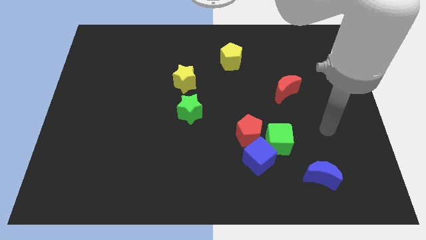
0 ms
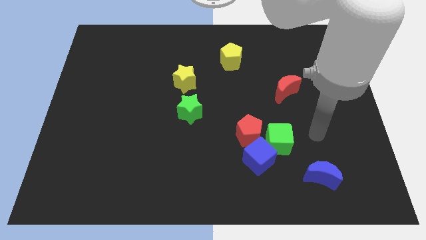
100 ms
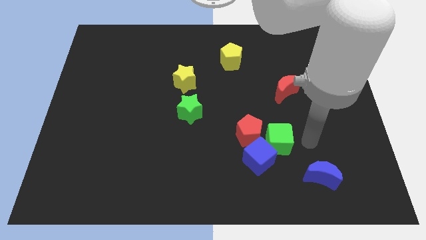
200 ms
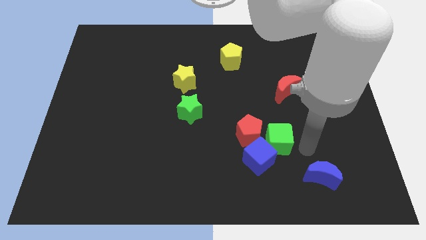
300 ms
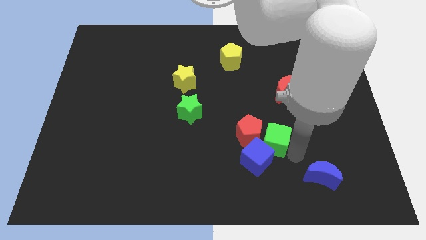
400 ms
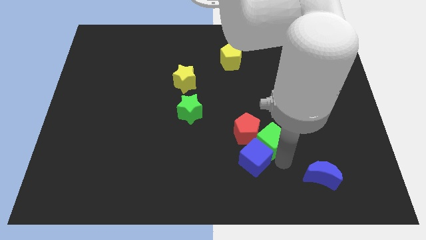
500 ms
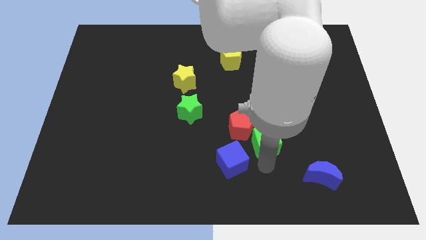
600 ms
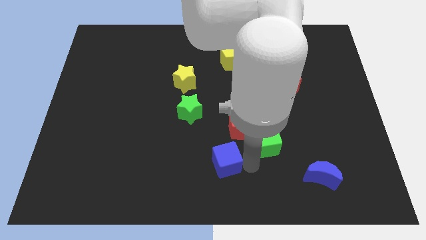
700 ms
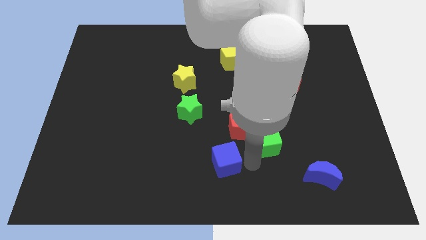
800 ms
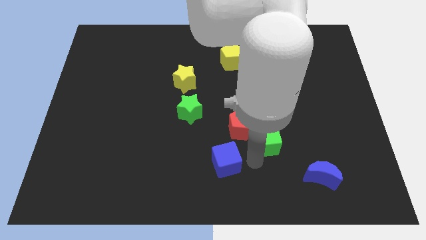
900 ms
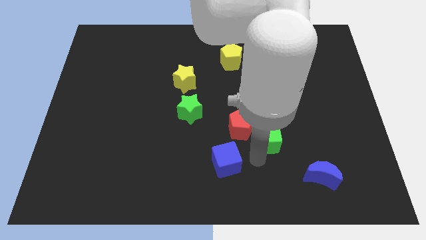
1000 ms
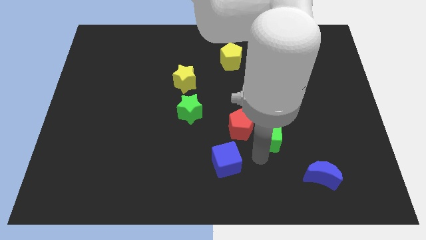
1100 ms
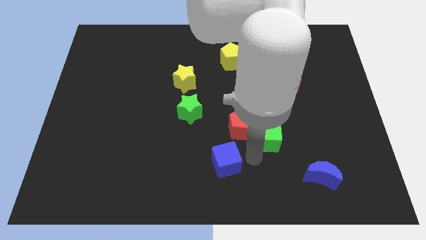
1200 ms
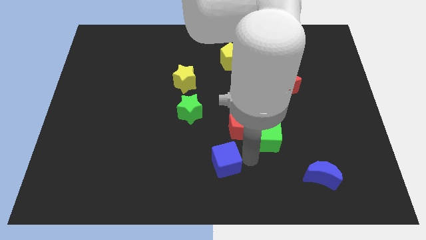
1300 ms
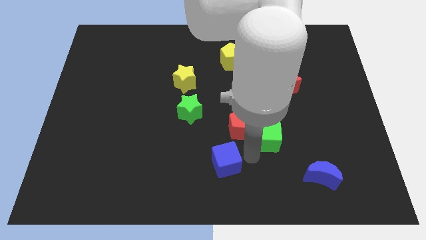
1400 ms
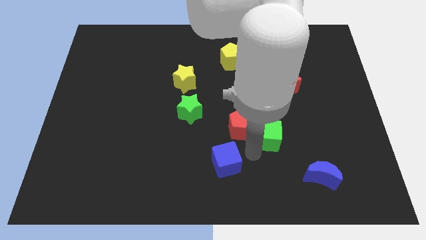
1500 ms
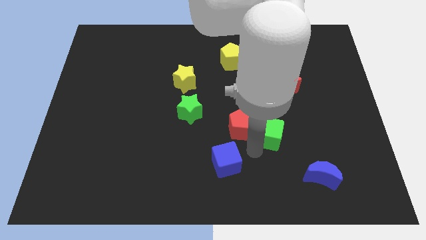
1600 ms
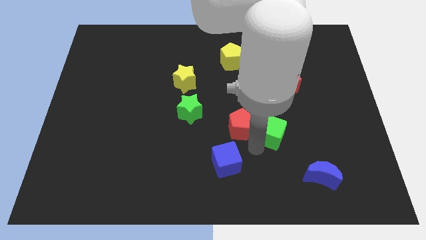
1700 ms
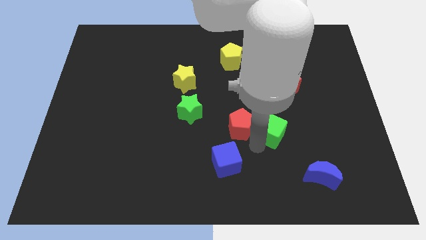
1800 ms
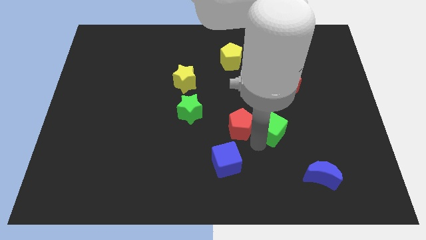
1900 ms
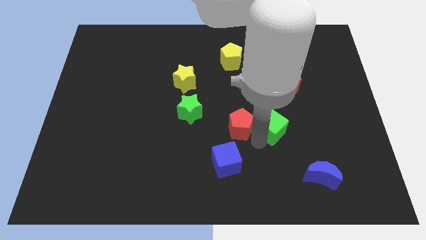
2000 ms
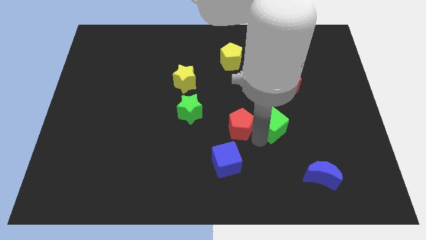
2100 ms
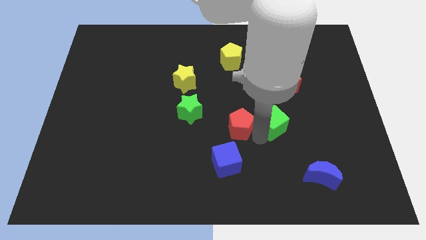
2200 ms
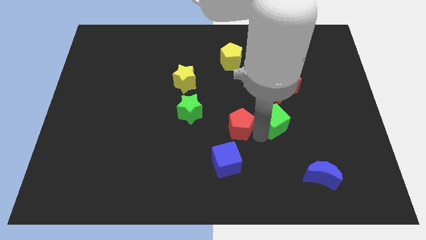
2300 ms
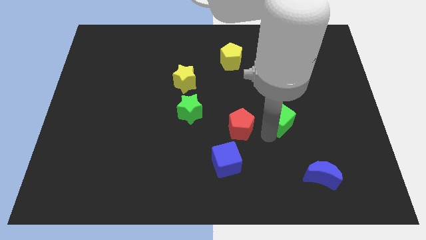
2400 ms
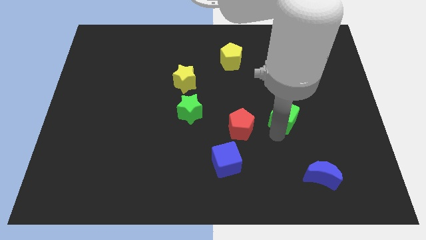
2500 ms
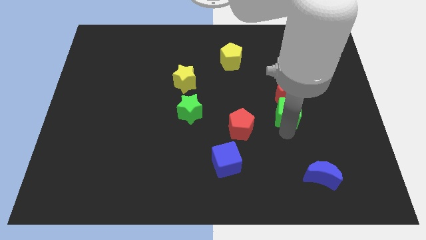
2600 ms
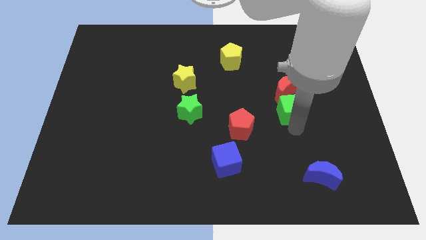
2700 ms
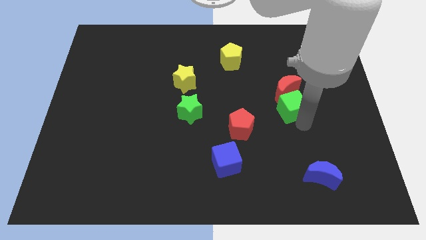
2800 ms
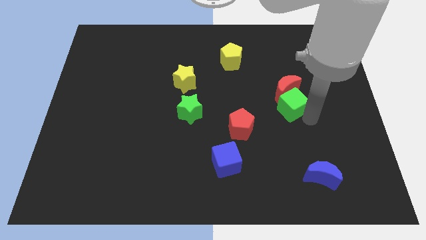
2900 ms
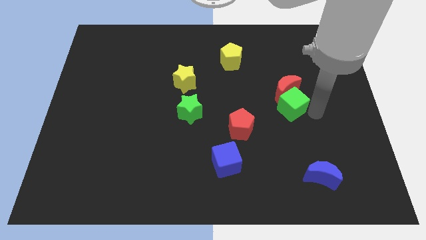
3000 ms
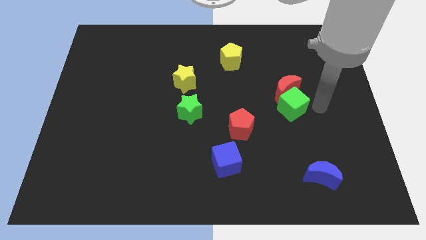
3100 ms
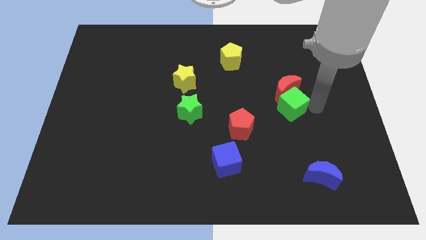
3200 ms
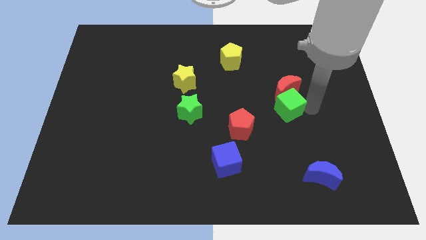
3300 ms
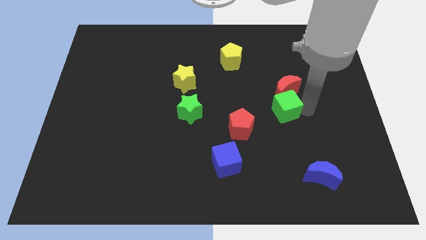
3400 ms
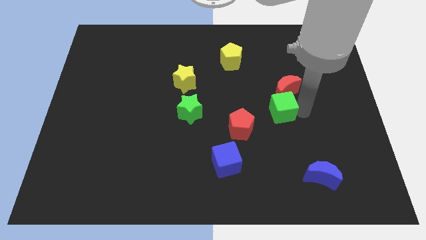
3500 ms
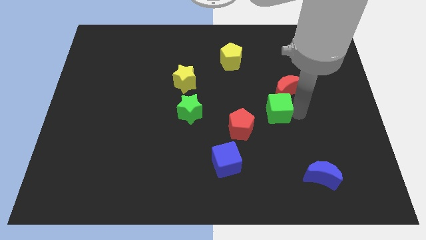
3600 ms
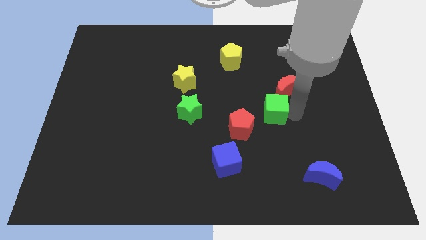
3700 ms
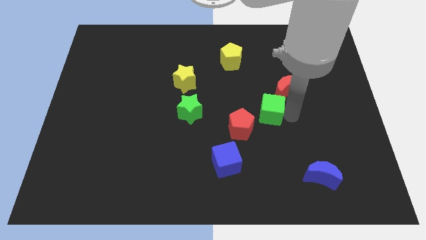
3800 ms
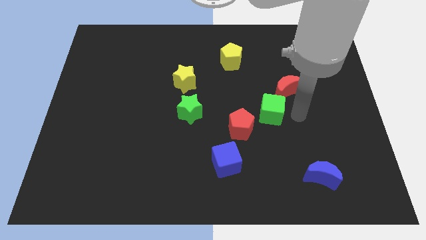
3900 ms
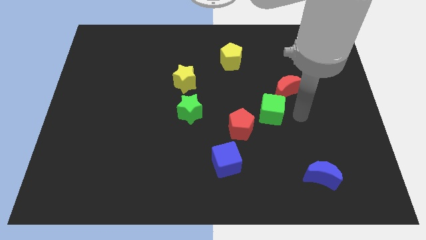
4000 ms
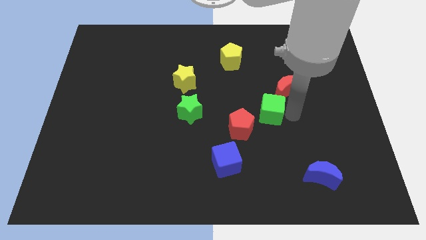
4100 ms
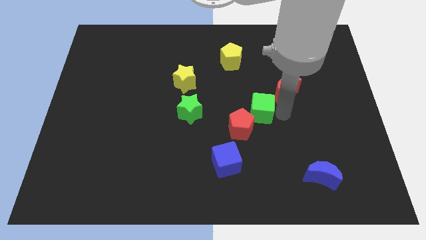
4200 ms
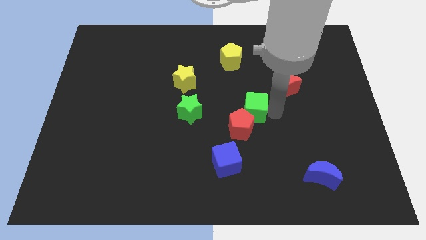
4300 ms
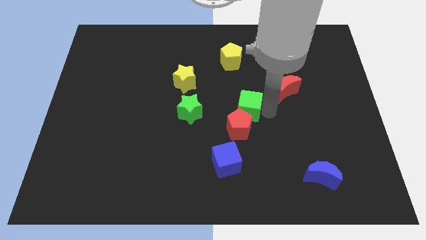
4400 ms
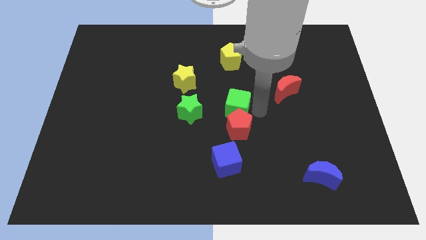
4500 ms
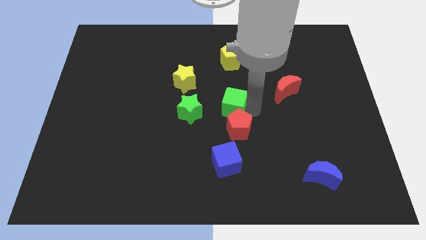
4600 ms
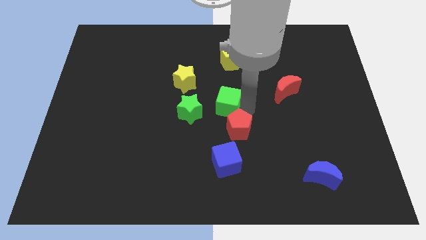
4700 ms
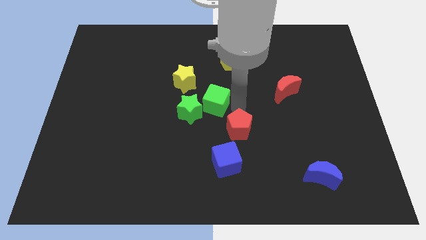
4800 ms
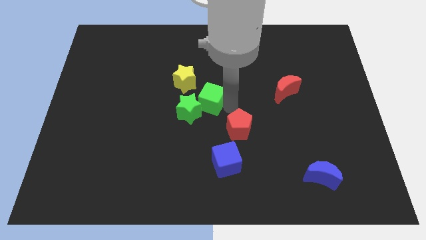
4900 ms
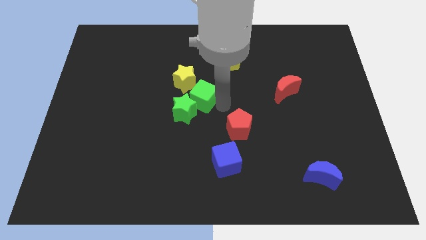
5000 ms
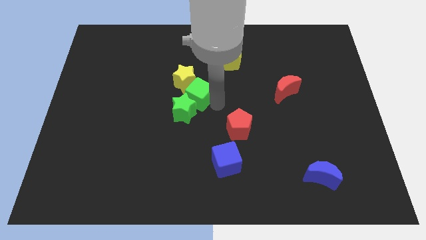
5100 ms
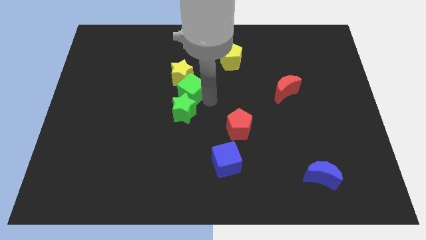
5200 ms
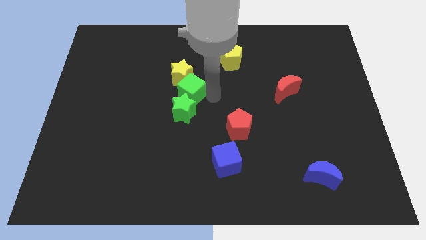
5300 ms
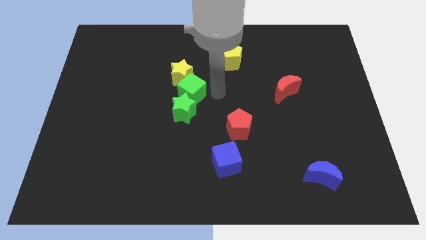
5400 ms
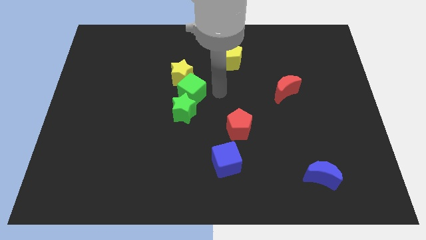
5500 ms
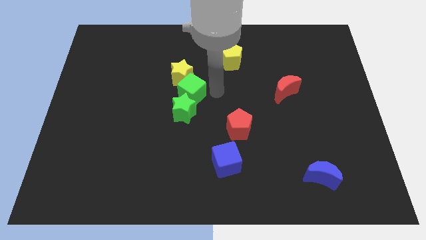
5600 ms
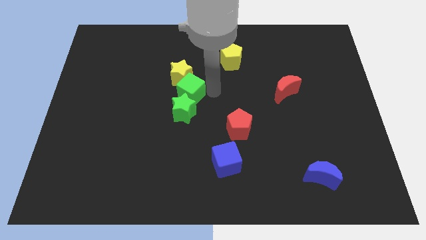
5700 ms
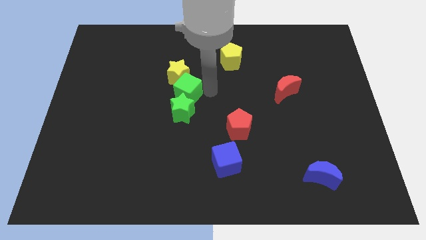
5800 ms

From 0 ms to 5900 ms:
put the green cube to the top left of the green star
